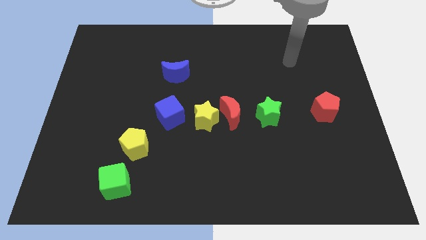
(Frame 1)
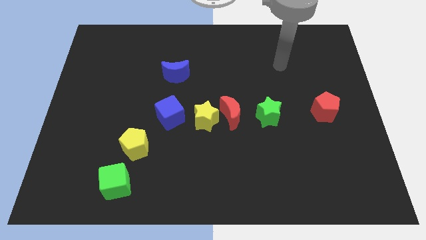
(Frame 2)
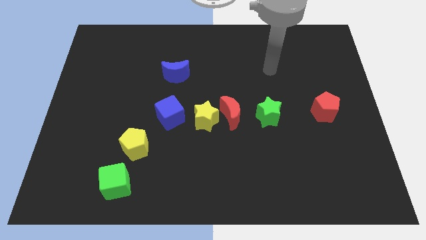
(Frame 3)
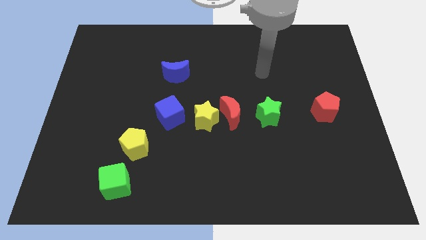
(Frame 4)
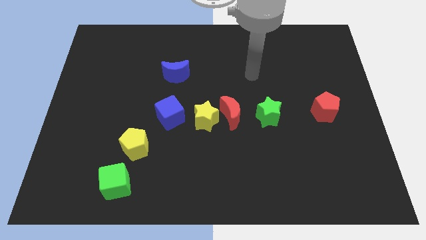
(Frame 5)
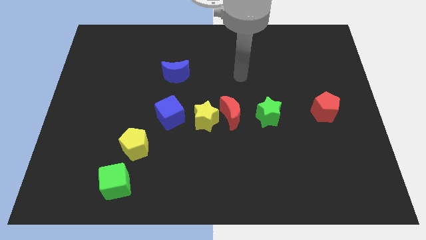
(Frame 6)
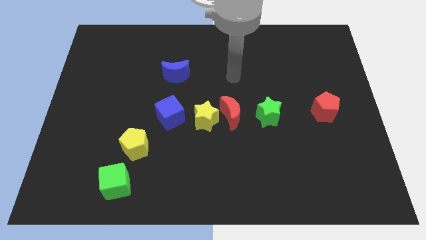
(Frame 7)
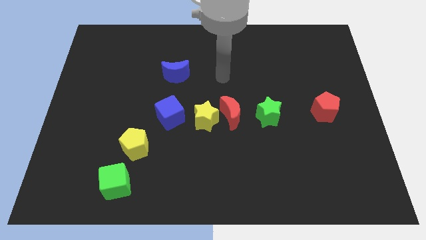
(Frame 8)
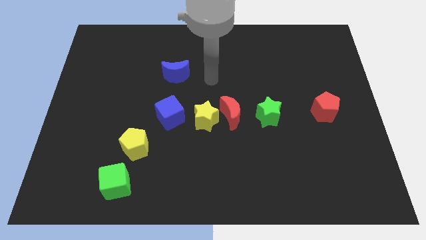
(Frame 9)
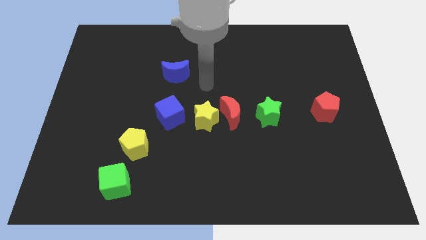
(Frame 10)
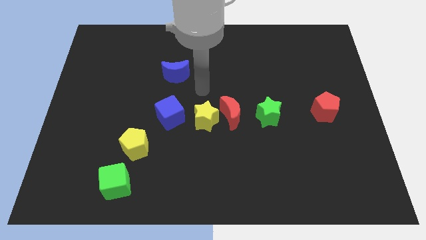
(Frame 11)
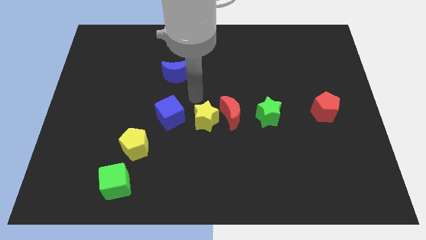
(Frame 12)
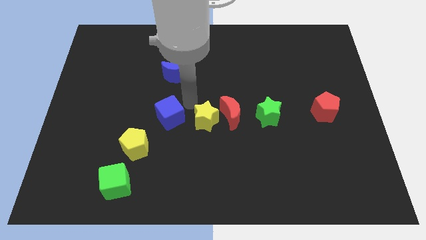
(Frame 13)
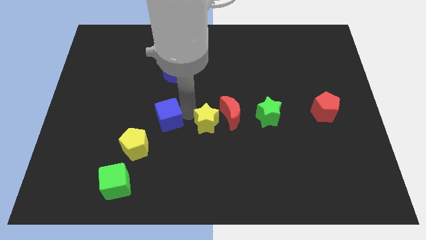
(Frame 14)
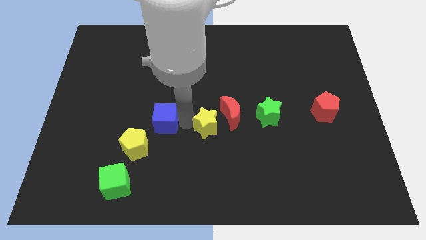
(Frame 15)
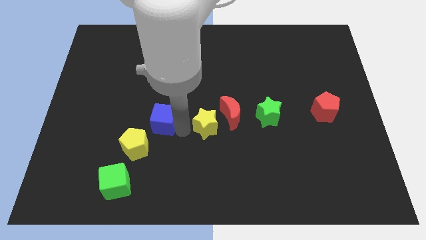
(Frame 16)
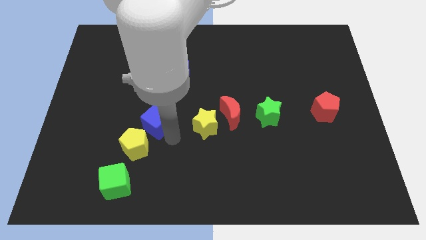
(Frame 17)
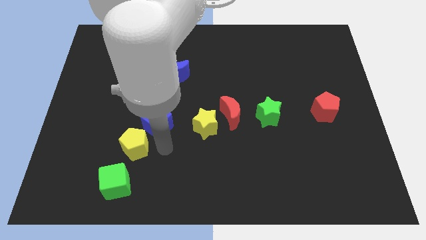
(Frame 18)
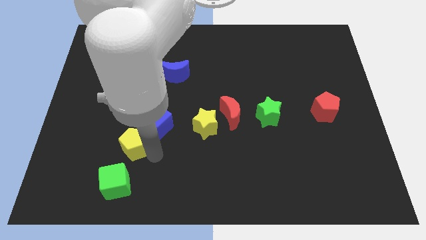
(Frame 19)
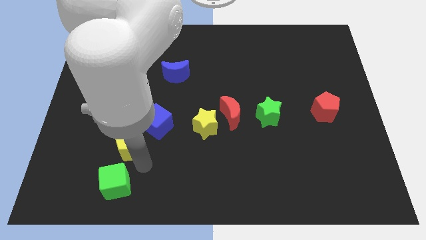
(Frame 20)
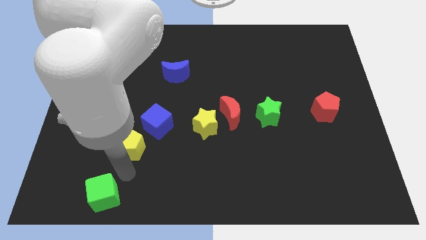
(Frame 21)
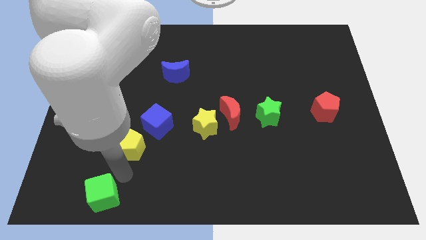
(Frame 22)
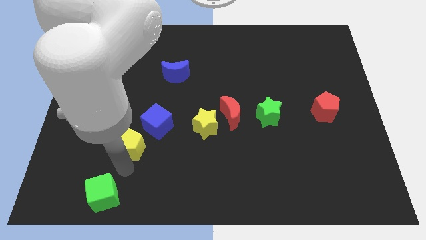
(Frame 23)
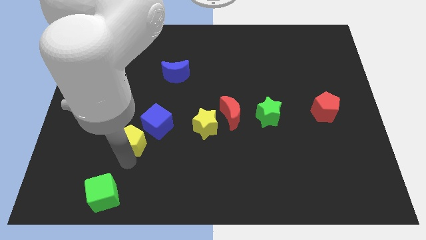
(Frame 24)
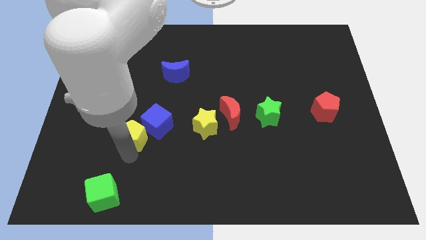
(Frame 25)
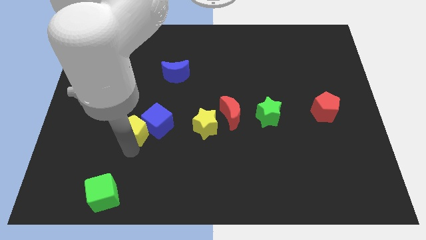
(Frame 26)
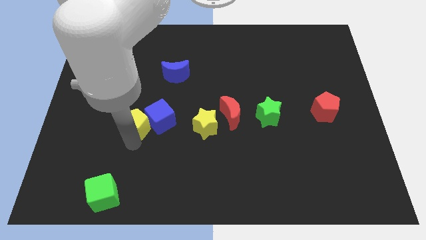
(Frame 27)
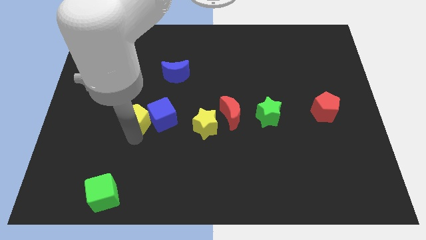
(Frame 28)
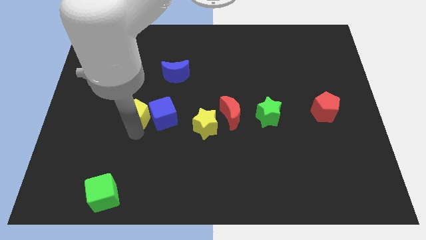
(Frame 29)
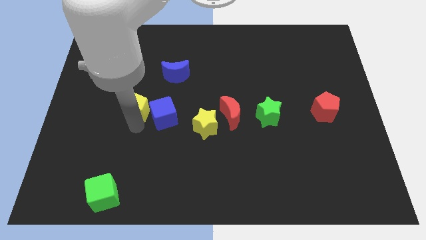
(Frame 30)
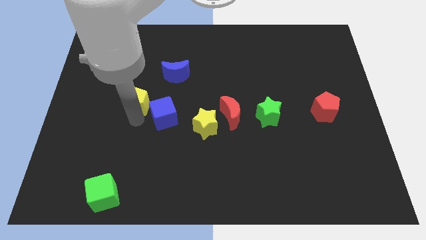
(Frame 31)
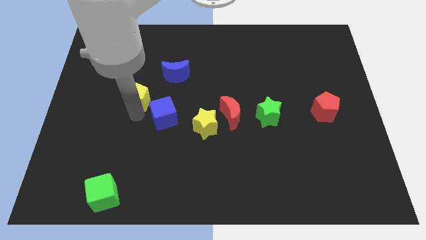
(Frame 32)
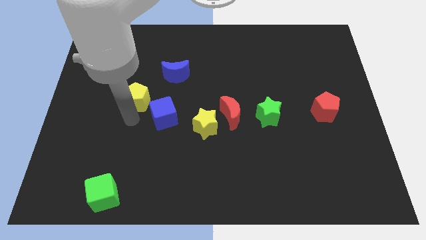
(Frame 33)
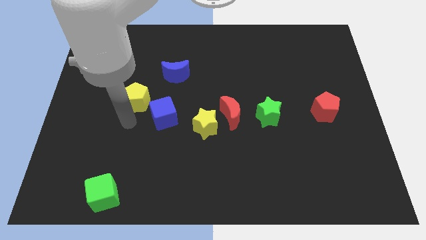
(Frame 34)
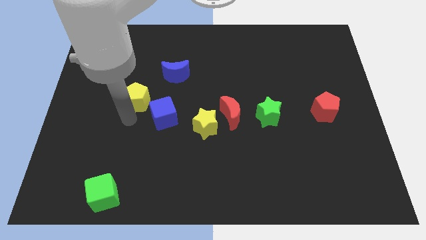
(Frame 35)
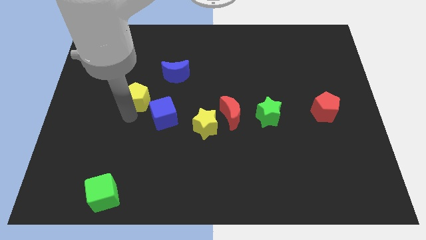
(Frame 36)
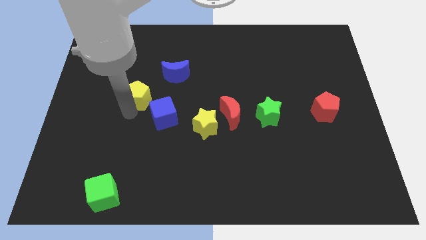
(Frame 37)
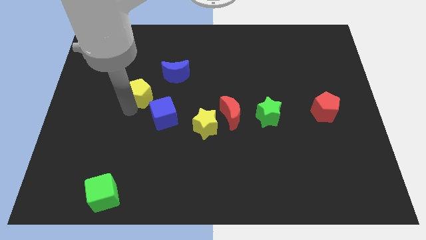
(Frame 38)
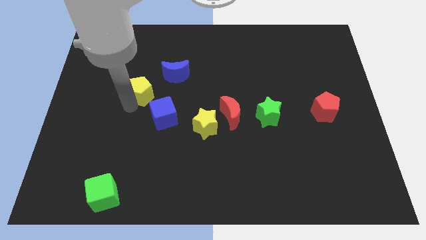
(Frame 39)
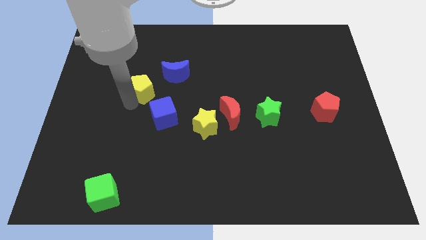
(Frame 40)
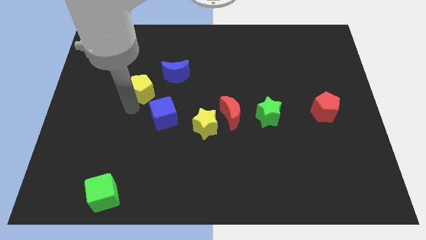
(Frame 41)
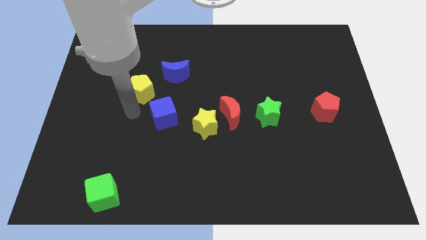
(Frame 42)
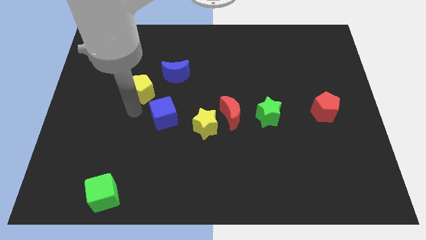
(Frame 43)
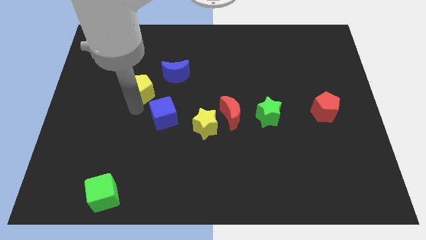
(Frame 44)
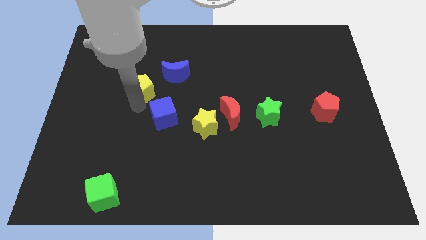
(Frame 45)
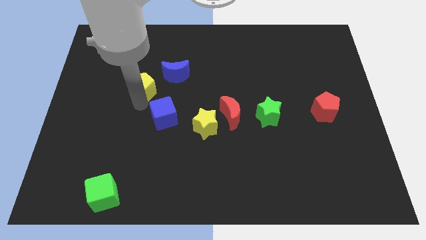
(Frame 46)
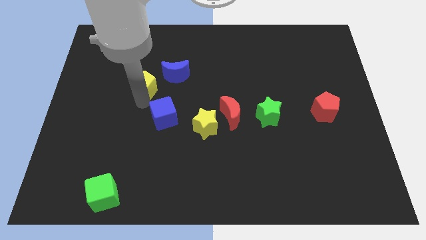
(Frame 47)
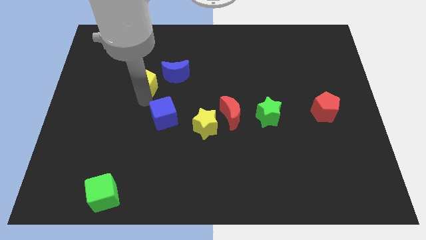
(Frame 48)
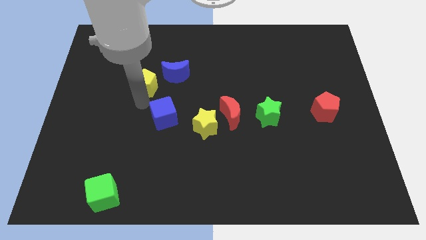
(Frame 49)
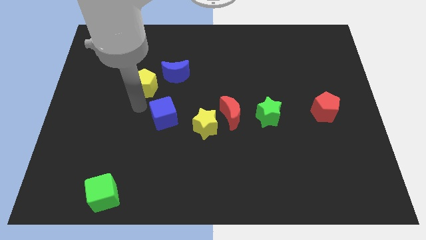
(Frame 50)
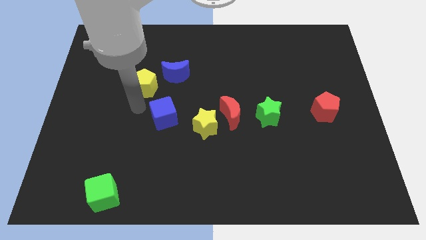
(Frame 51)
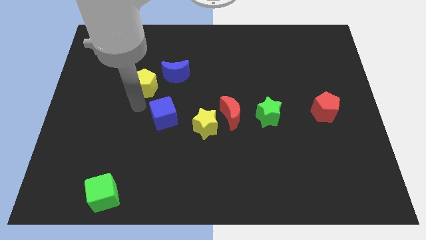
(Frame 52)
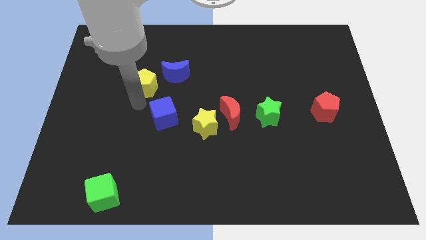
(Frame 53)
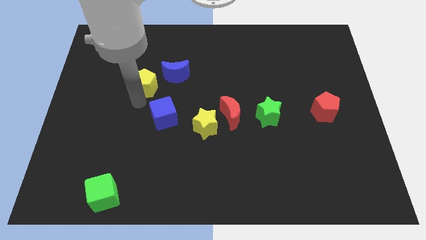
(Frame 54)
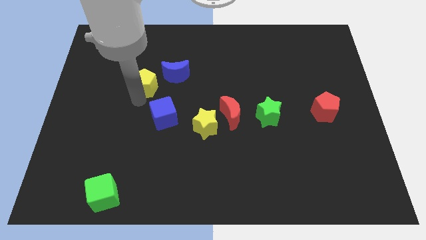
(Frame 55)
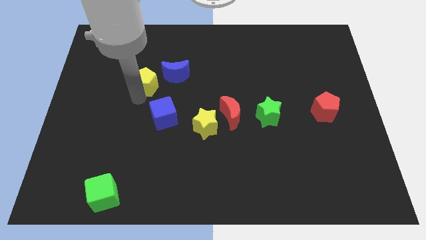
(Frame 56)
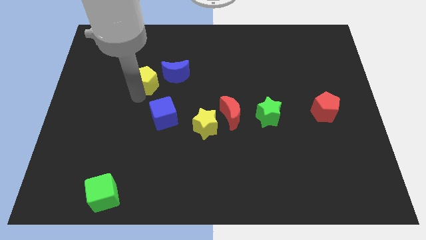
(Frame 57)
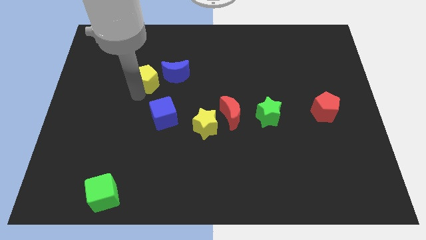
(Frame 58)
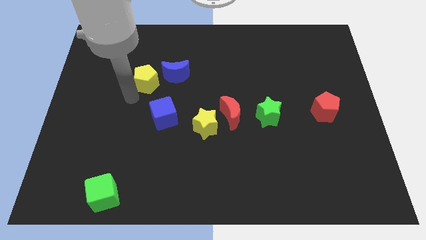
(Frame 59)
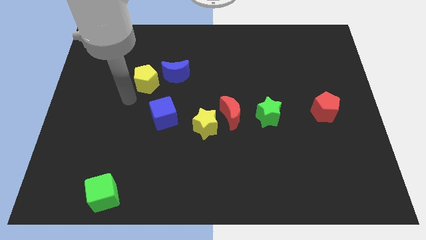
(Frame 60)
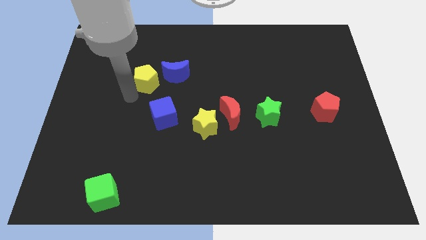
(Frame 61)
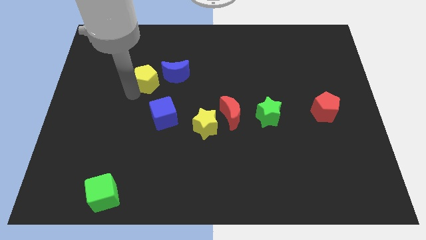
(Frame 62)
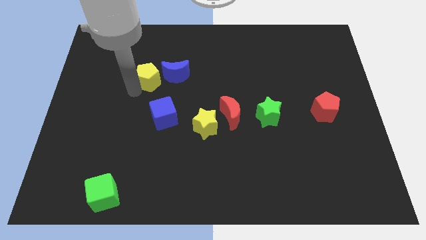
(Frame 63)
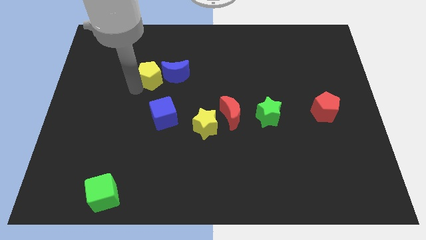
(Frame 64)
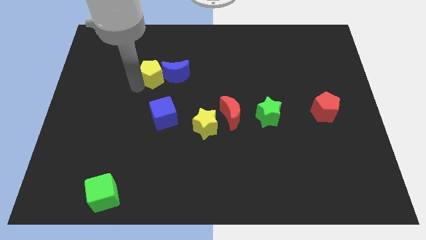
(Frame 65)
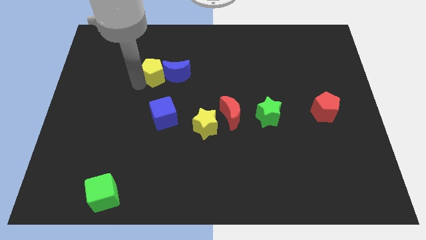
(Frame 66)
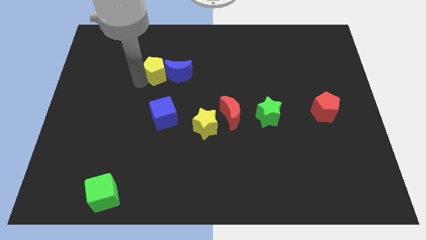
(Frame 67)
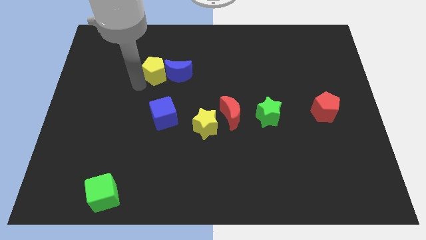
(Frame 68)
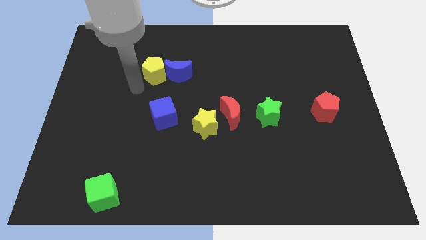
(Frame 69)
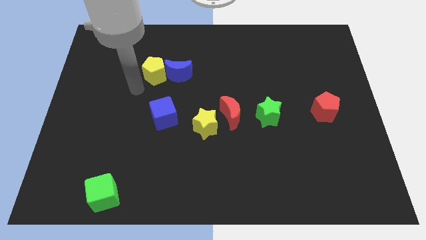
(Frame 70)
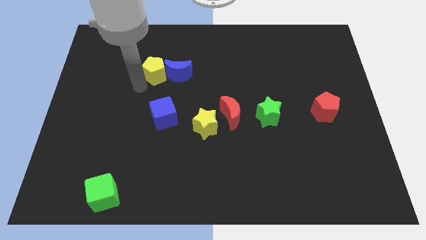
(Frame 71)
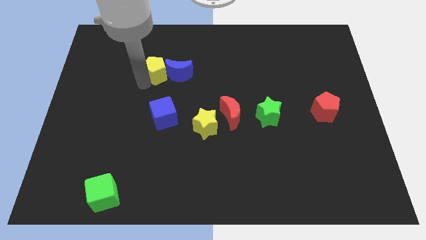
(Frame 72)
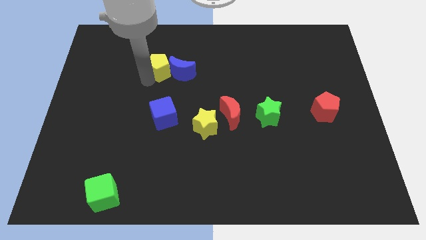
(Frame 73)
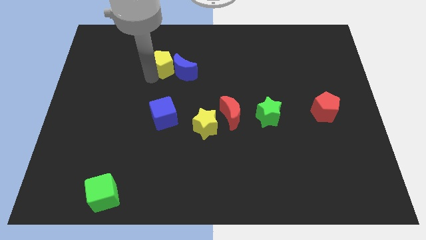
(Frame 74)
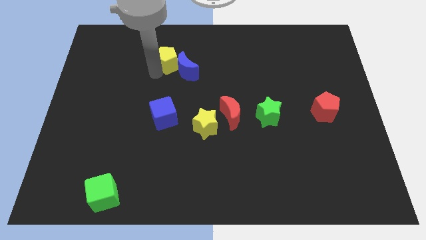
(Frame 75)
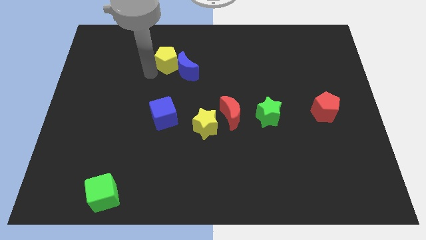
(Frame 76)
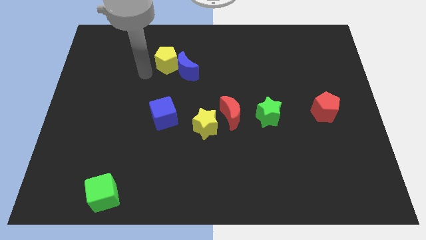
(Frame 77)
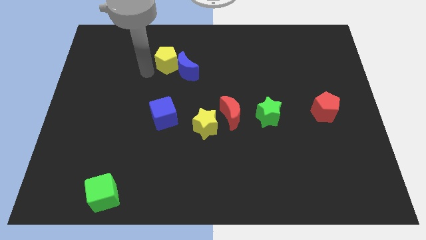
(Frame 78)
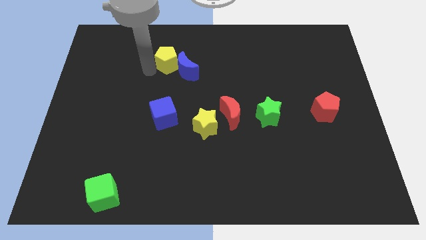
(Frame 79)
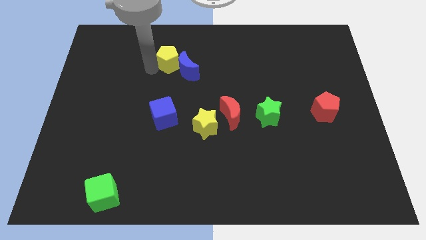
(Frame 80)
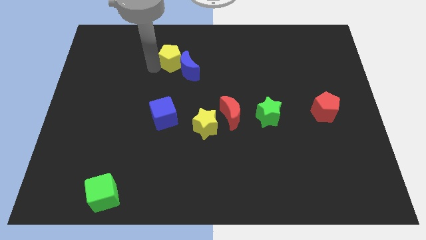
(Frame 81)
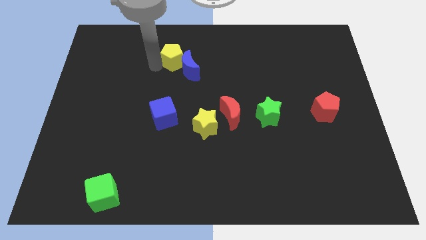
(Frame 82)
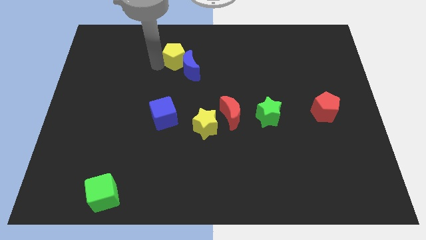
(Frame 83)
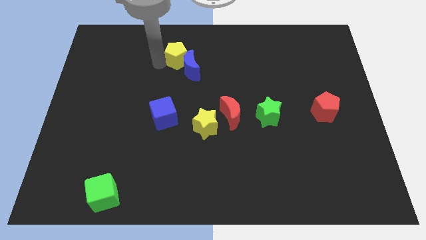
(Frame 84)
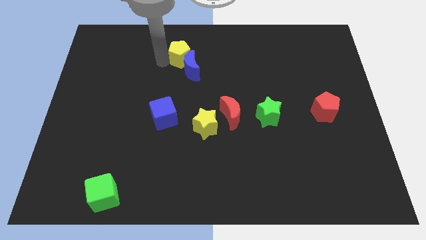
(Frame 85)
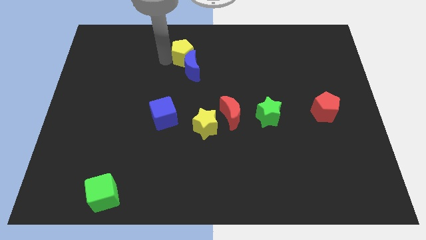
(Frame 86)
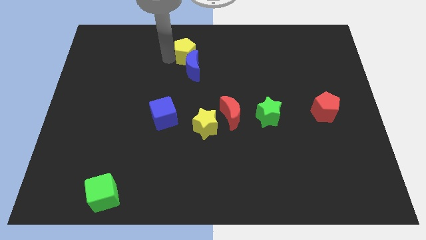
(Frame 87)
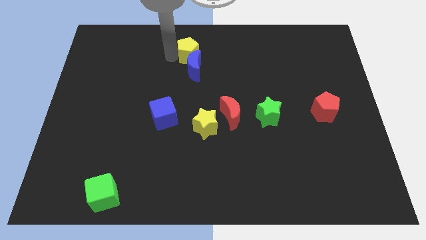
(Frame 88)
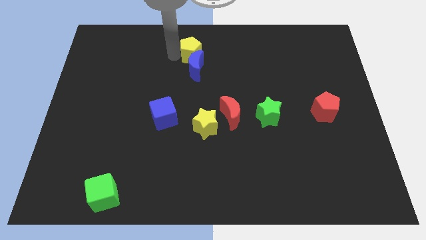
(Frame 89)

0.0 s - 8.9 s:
slide the yellow pentagon to the top side
